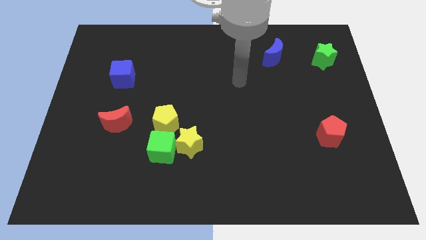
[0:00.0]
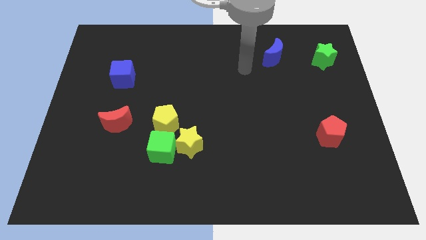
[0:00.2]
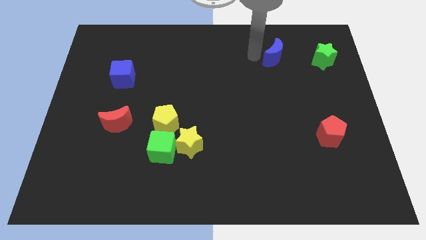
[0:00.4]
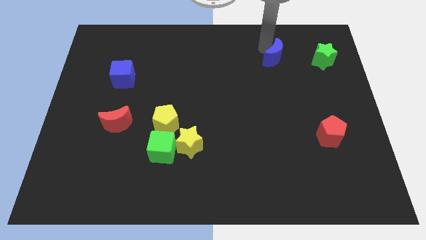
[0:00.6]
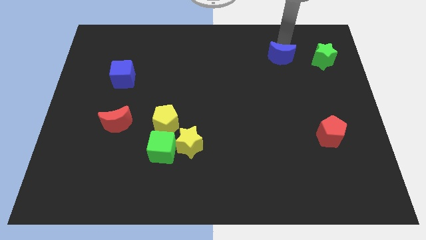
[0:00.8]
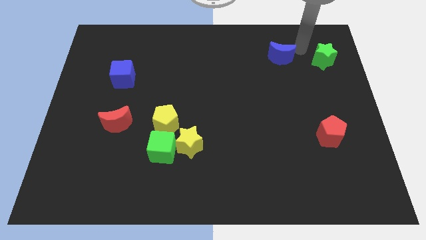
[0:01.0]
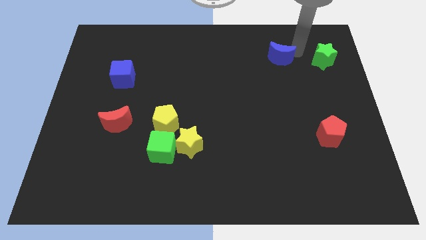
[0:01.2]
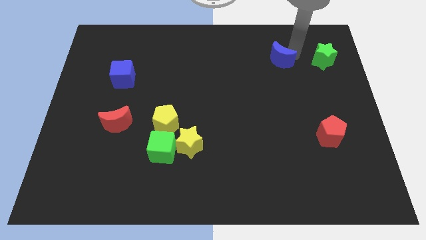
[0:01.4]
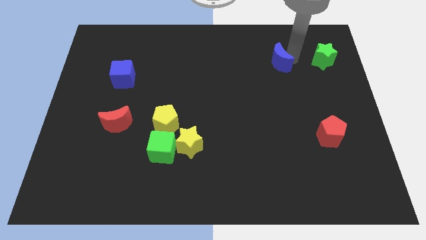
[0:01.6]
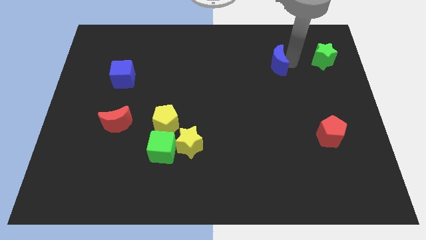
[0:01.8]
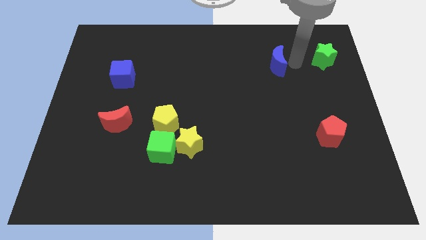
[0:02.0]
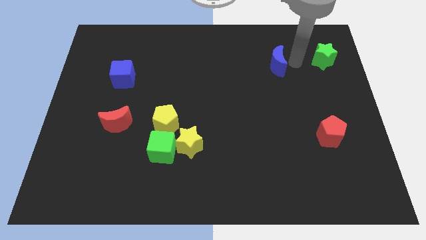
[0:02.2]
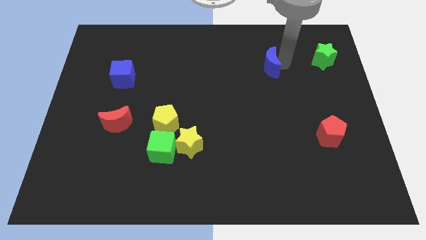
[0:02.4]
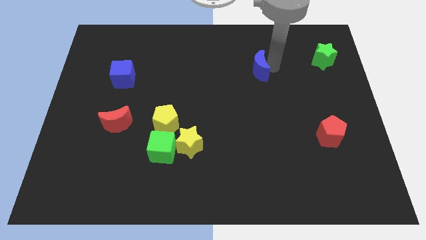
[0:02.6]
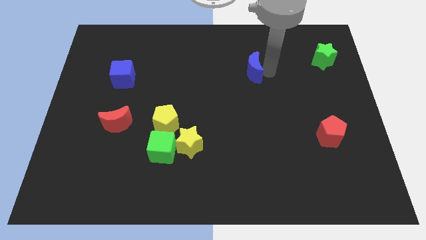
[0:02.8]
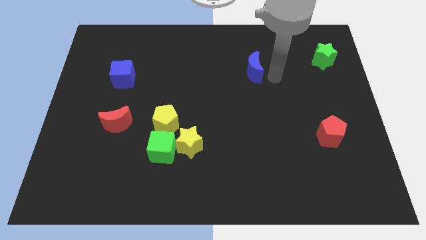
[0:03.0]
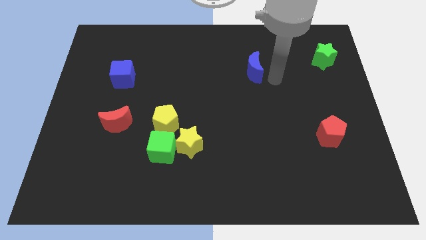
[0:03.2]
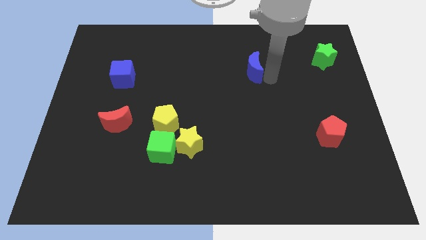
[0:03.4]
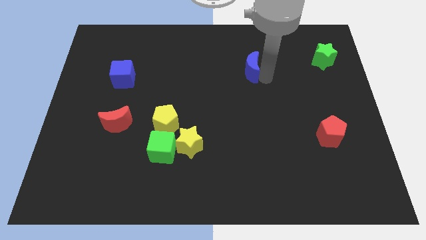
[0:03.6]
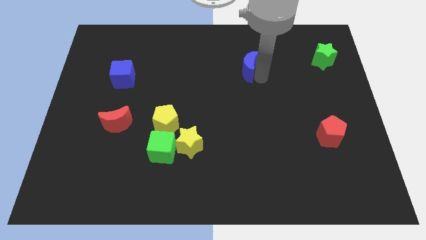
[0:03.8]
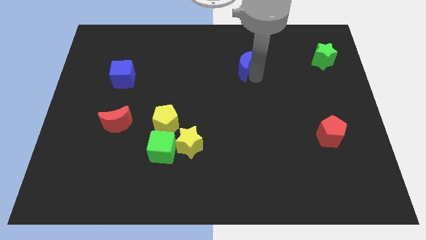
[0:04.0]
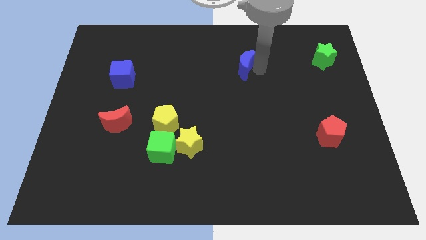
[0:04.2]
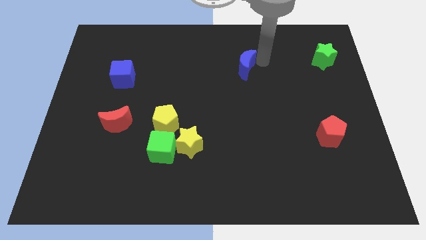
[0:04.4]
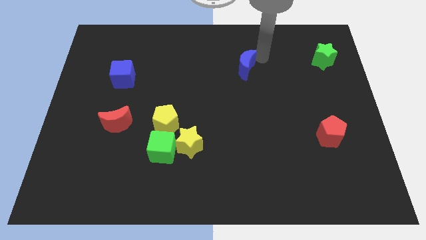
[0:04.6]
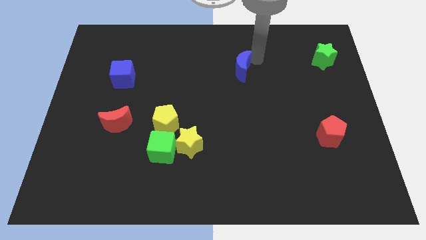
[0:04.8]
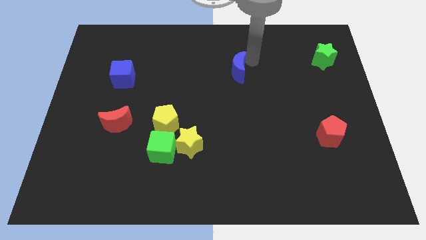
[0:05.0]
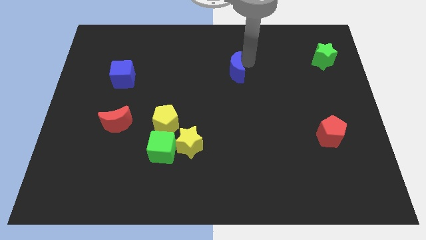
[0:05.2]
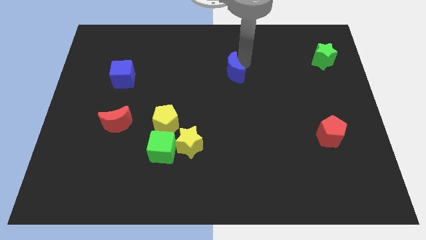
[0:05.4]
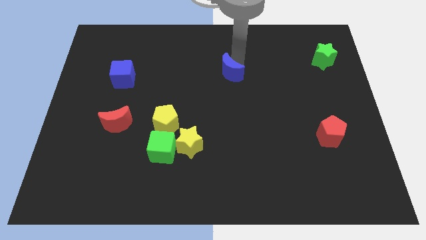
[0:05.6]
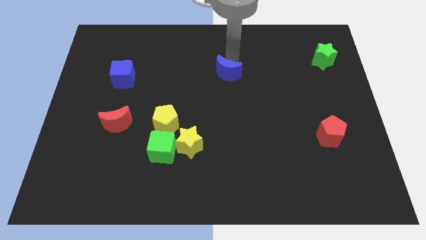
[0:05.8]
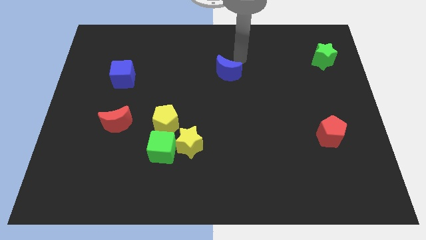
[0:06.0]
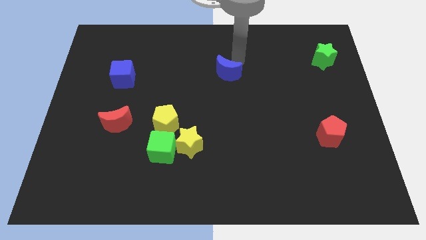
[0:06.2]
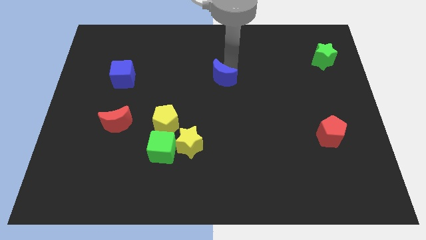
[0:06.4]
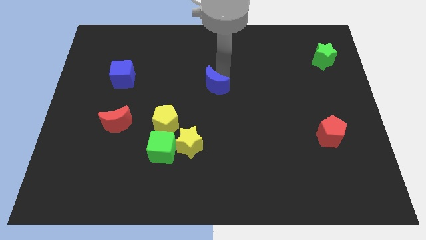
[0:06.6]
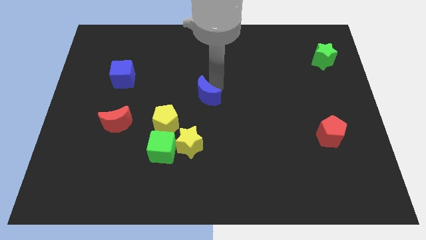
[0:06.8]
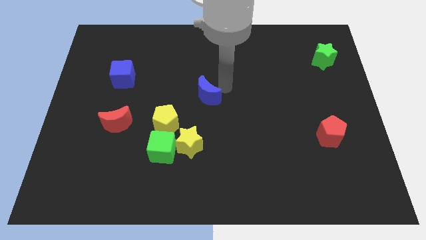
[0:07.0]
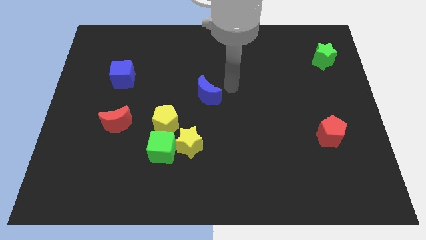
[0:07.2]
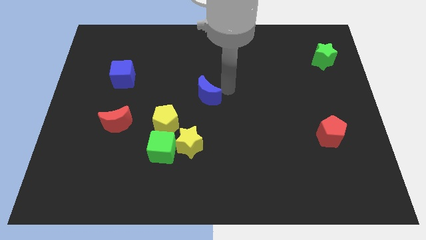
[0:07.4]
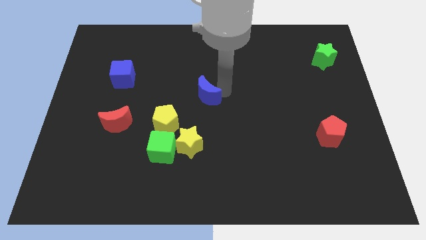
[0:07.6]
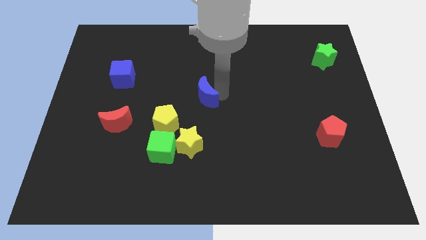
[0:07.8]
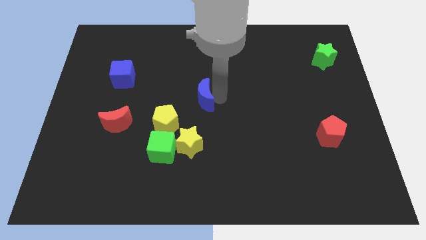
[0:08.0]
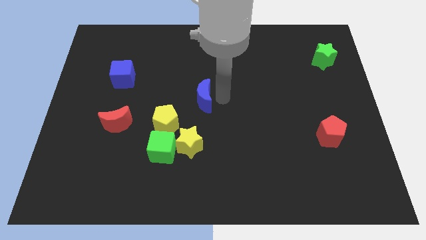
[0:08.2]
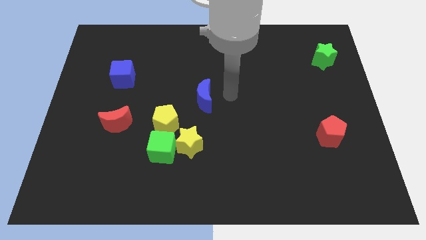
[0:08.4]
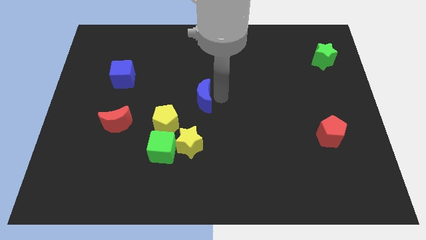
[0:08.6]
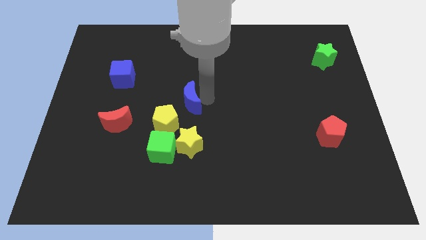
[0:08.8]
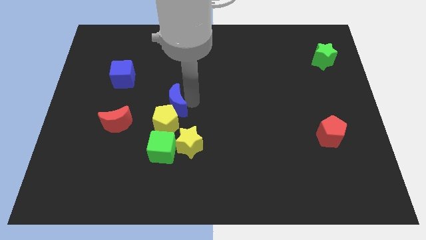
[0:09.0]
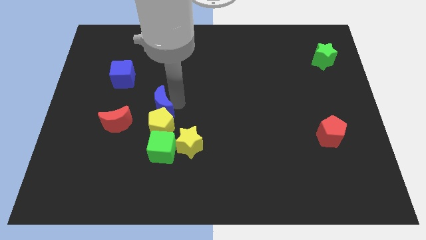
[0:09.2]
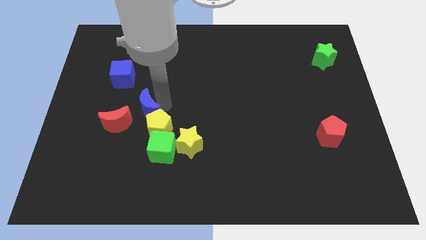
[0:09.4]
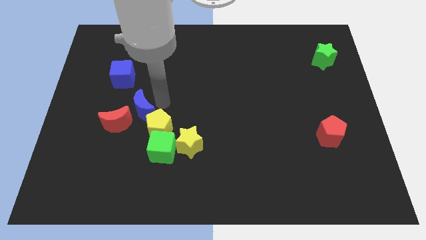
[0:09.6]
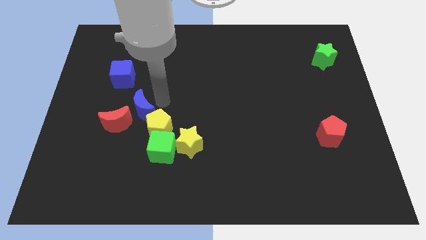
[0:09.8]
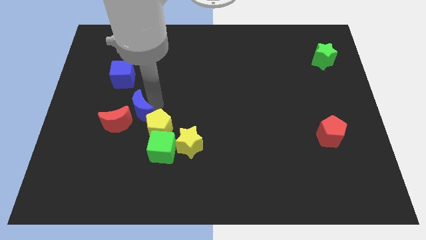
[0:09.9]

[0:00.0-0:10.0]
put the blue moon next to the red moon

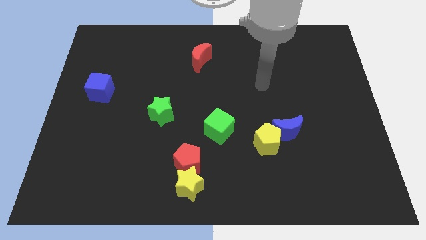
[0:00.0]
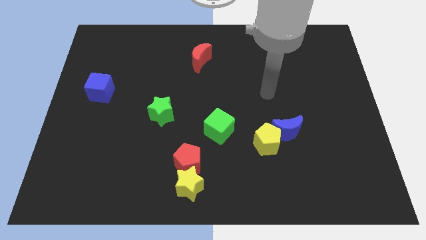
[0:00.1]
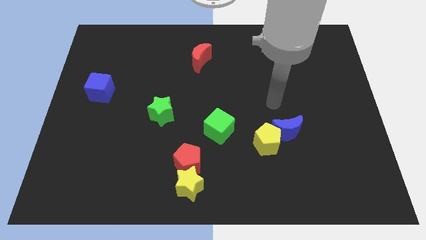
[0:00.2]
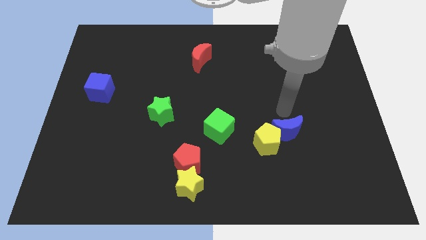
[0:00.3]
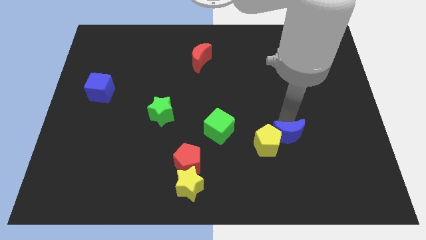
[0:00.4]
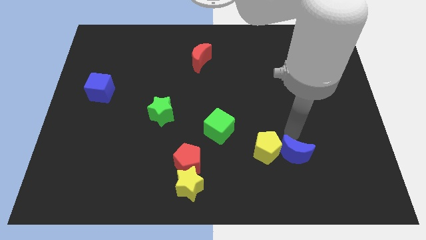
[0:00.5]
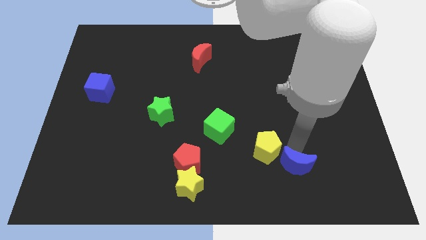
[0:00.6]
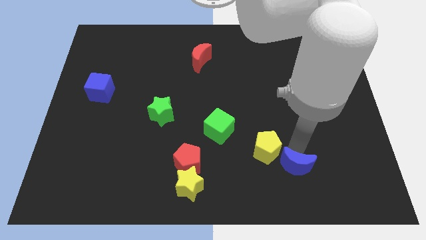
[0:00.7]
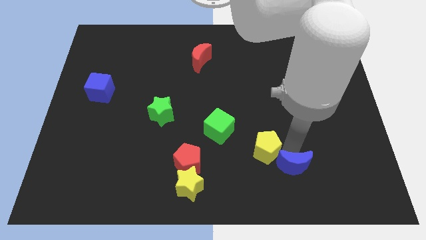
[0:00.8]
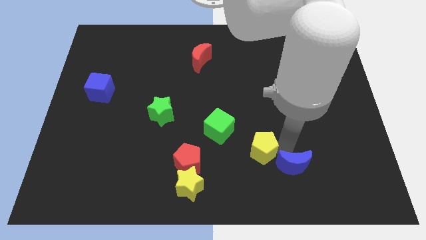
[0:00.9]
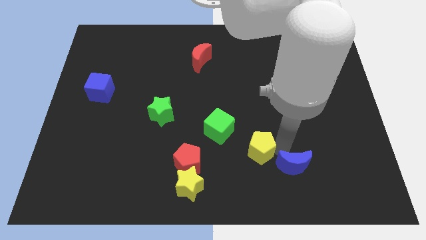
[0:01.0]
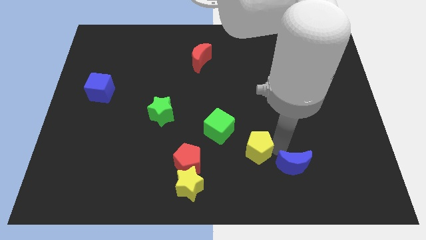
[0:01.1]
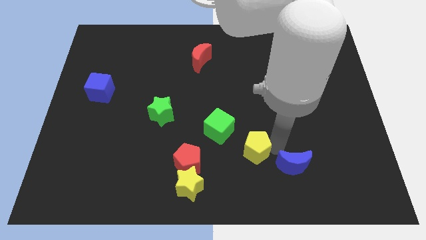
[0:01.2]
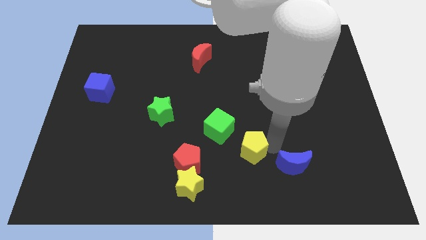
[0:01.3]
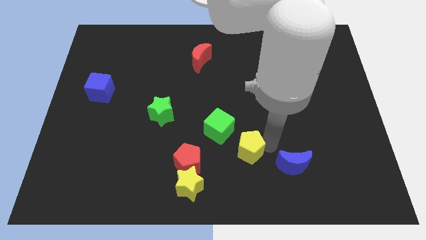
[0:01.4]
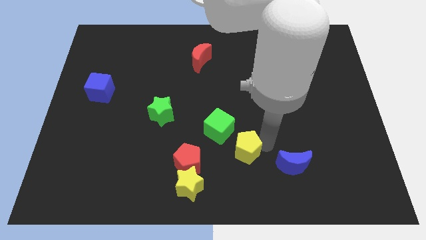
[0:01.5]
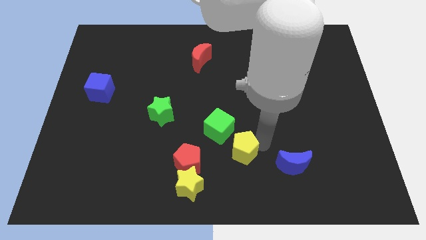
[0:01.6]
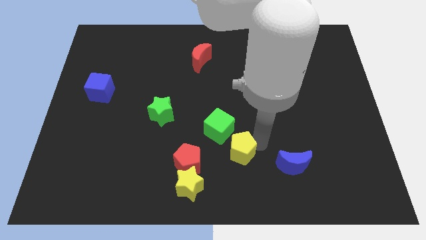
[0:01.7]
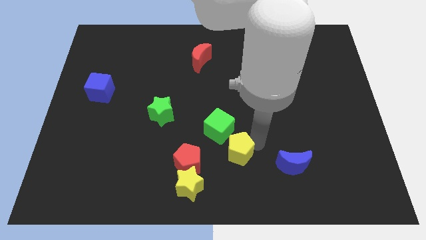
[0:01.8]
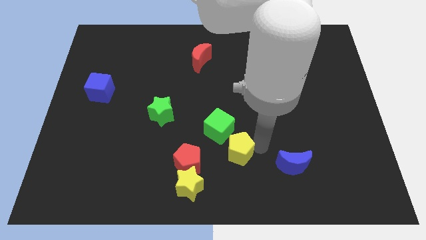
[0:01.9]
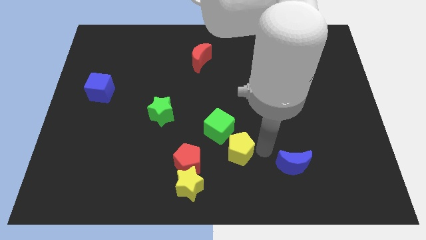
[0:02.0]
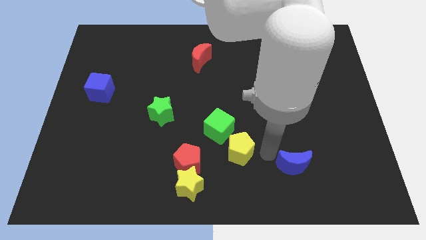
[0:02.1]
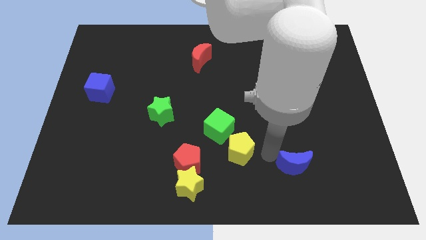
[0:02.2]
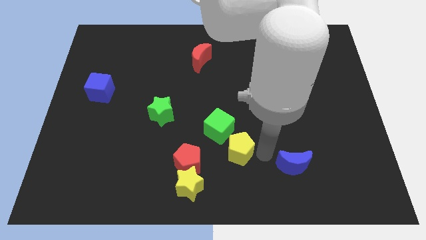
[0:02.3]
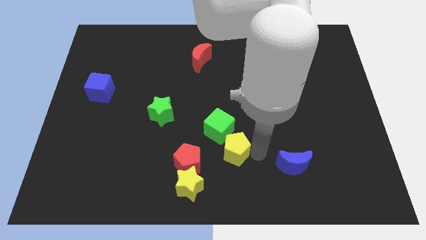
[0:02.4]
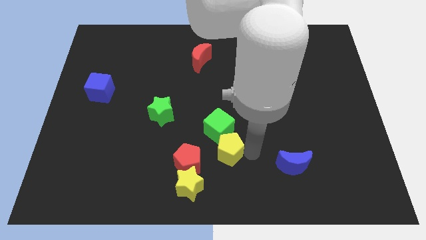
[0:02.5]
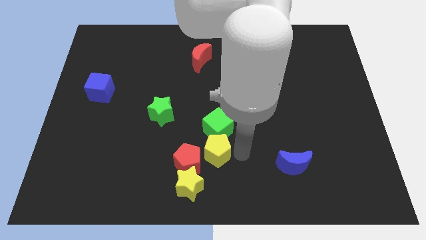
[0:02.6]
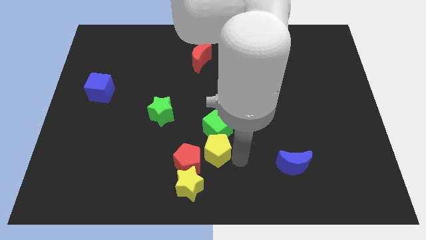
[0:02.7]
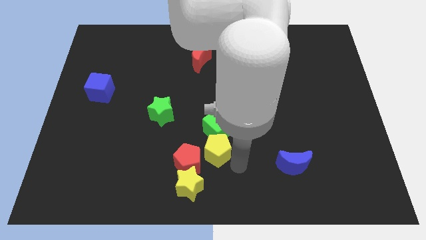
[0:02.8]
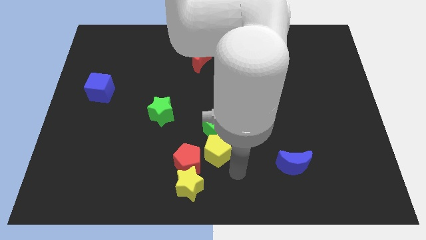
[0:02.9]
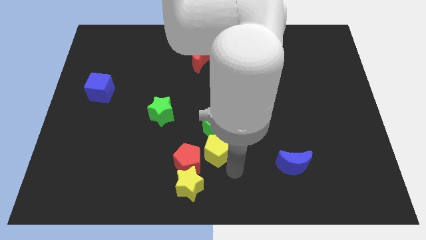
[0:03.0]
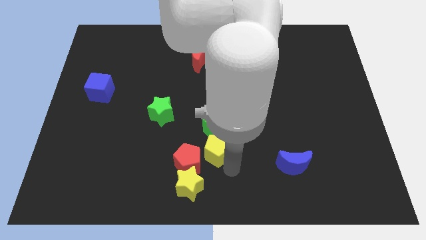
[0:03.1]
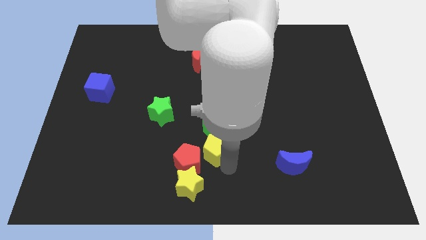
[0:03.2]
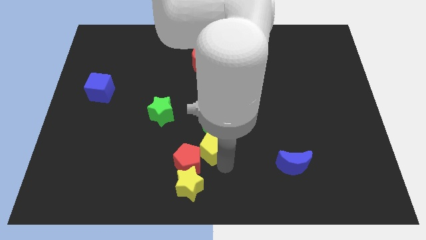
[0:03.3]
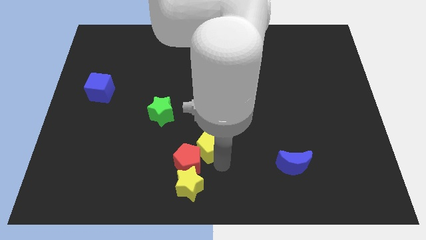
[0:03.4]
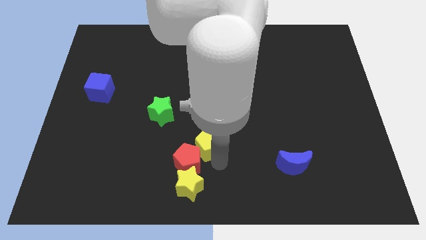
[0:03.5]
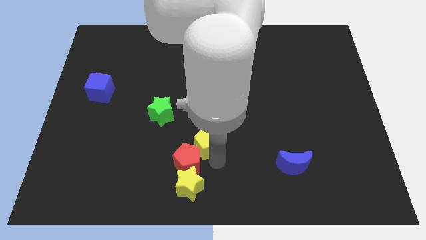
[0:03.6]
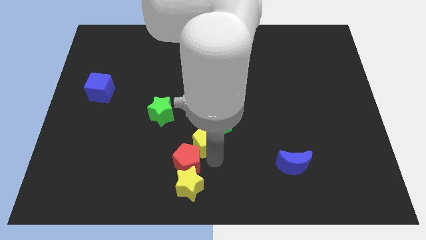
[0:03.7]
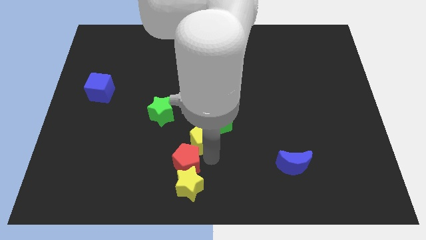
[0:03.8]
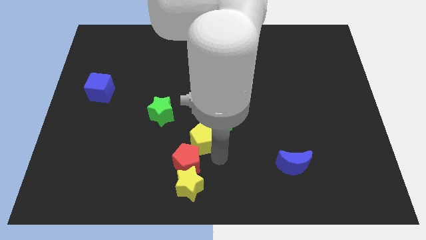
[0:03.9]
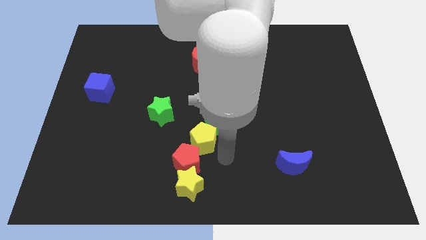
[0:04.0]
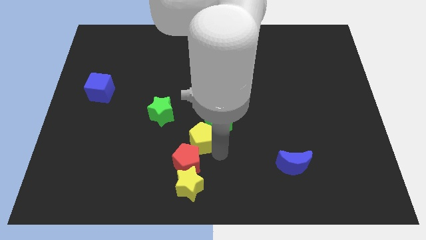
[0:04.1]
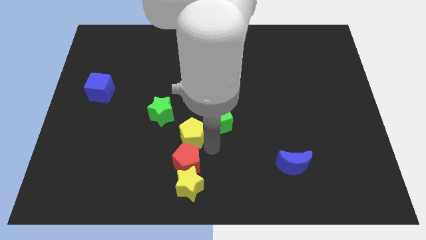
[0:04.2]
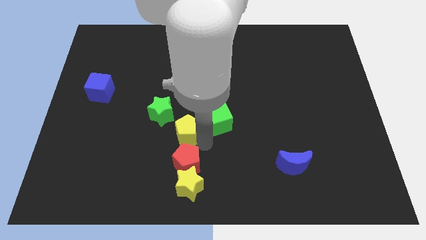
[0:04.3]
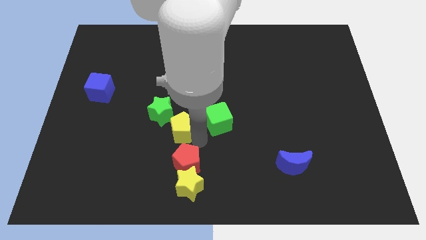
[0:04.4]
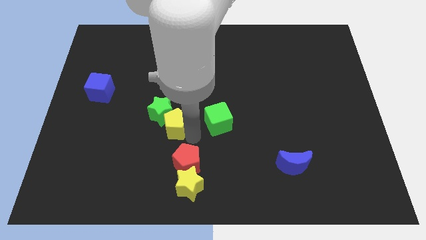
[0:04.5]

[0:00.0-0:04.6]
put the yellow pentagon towards the green star
